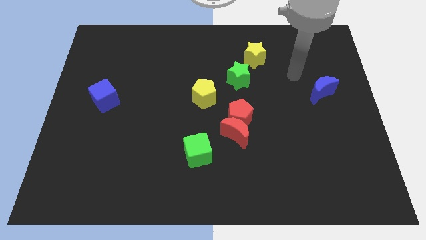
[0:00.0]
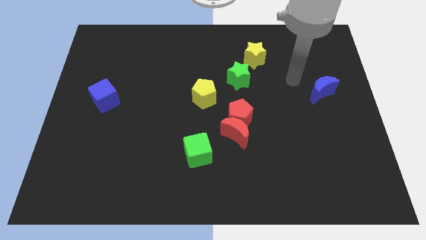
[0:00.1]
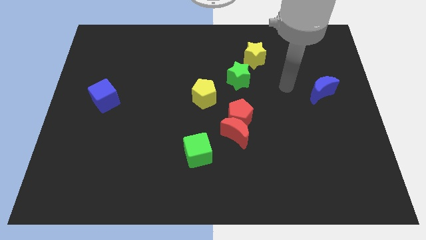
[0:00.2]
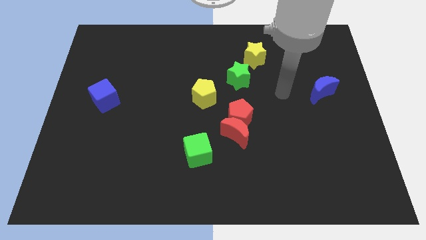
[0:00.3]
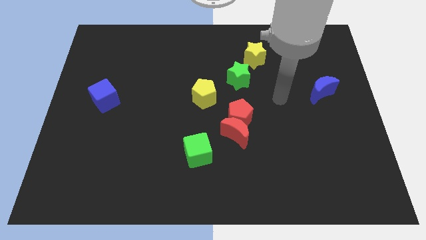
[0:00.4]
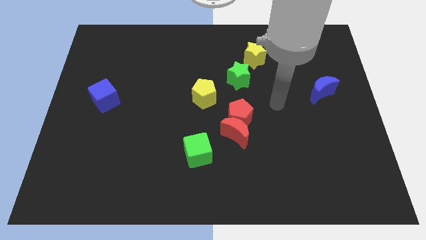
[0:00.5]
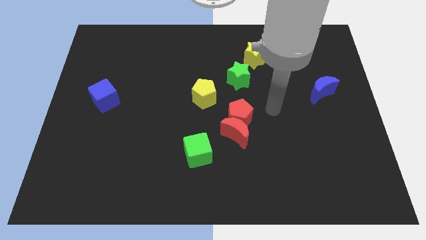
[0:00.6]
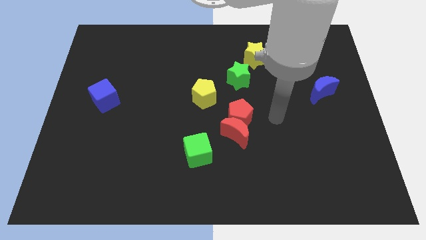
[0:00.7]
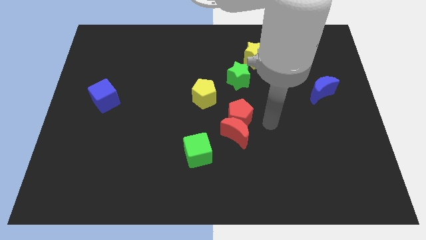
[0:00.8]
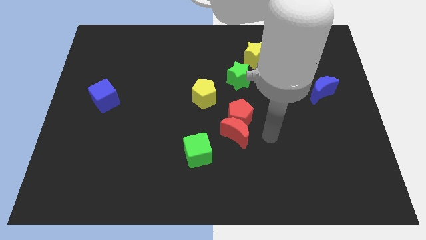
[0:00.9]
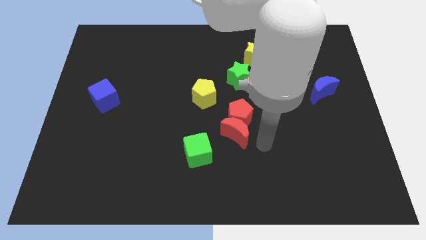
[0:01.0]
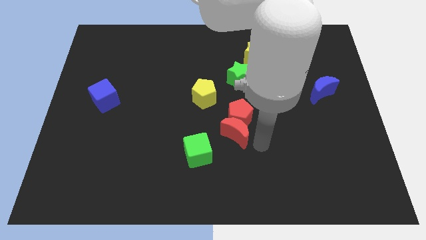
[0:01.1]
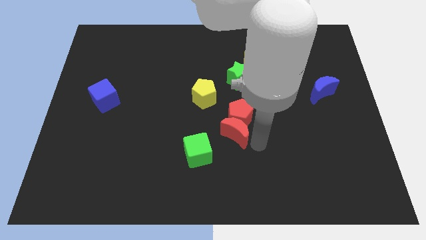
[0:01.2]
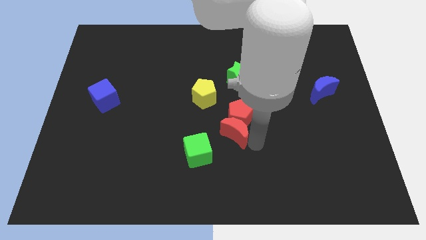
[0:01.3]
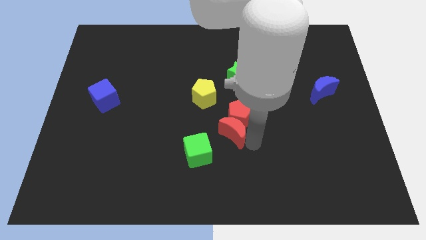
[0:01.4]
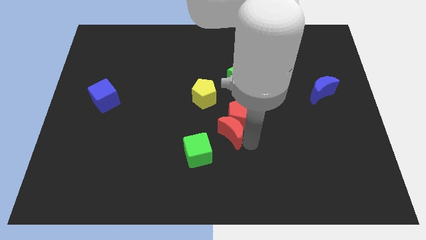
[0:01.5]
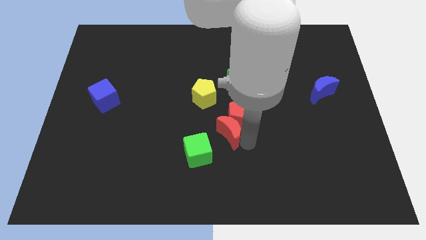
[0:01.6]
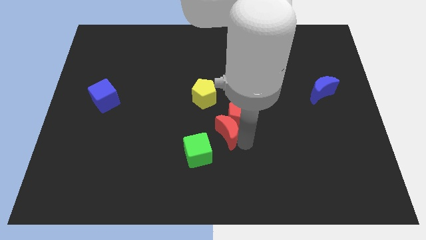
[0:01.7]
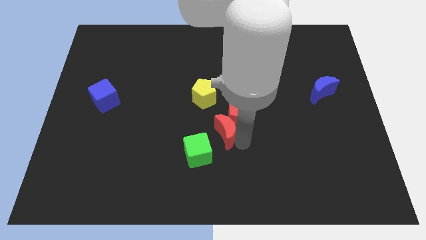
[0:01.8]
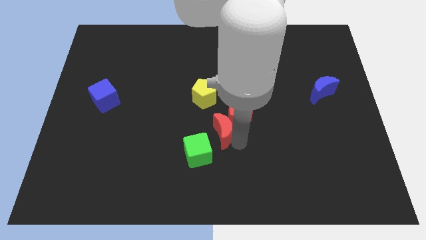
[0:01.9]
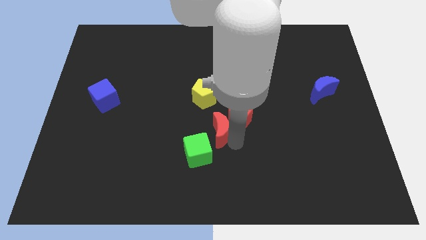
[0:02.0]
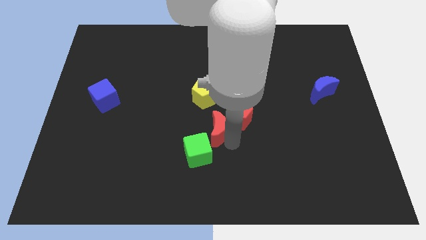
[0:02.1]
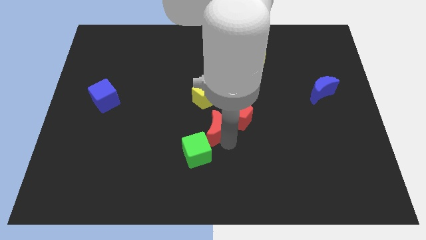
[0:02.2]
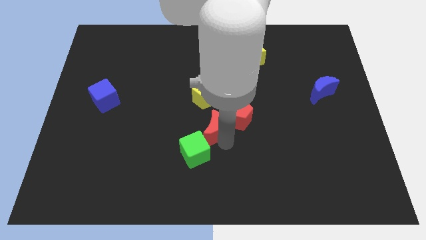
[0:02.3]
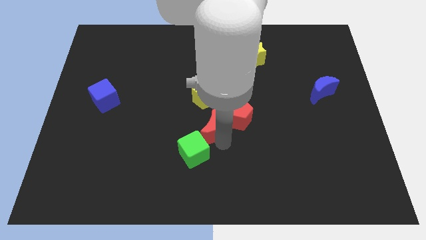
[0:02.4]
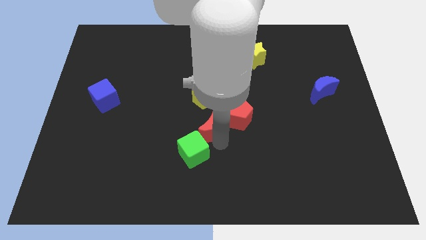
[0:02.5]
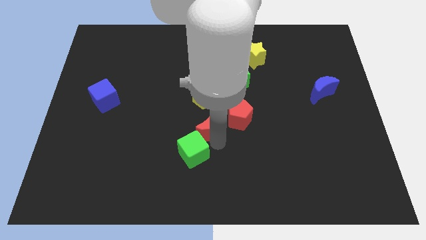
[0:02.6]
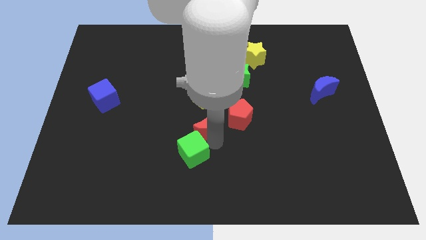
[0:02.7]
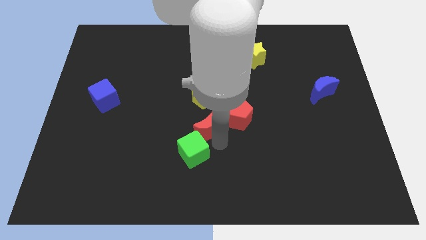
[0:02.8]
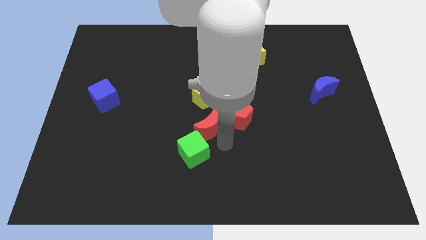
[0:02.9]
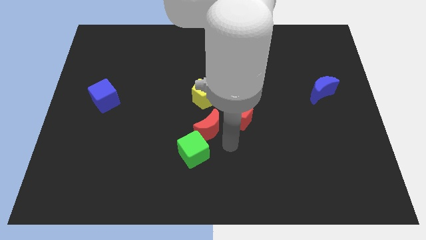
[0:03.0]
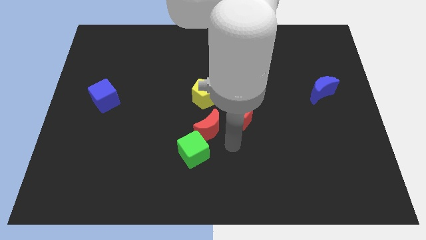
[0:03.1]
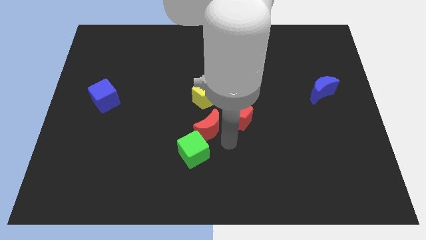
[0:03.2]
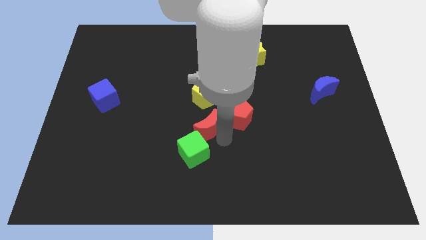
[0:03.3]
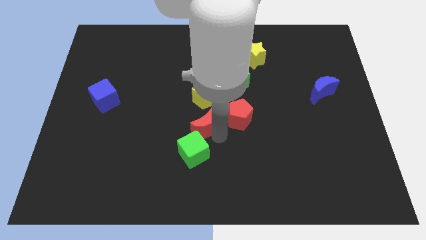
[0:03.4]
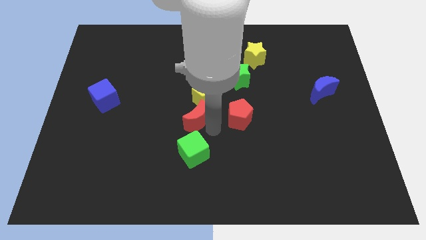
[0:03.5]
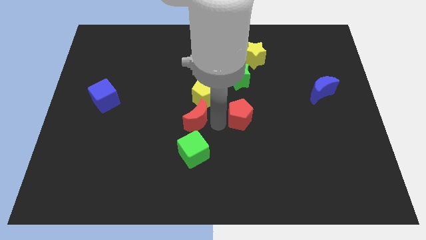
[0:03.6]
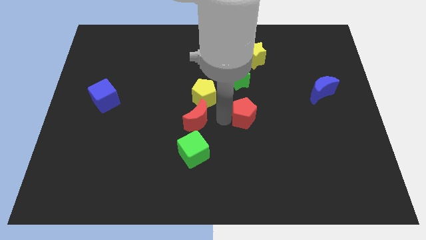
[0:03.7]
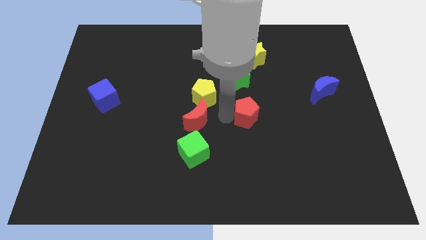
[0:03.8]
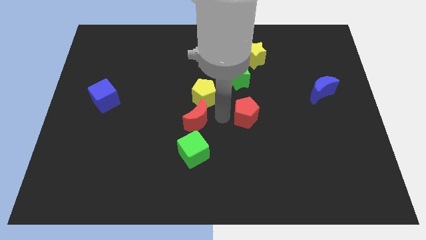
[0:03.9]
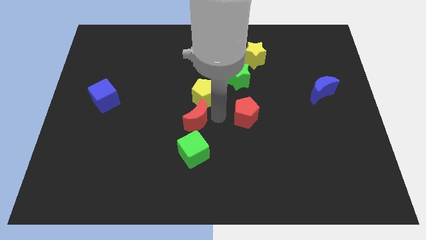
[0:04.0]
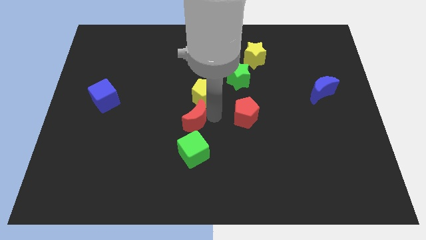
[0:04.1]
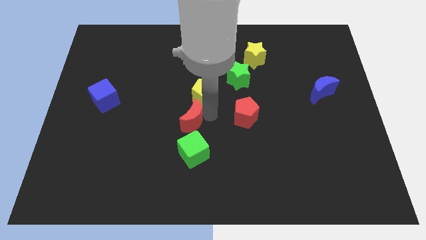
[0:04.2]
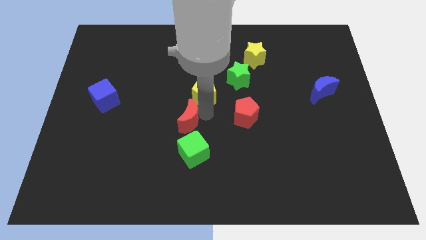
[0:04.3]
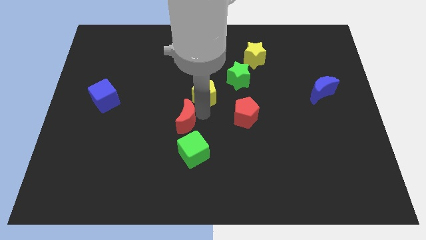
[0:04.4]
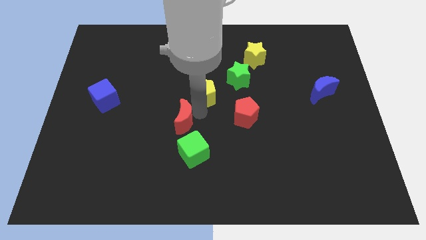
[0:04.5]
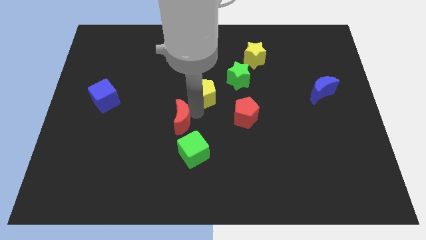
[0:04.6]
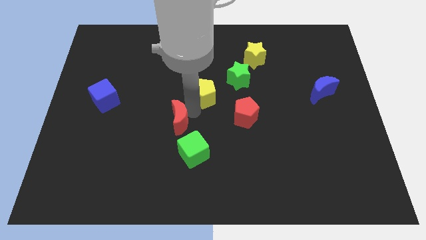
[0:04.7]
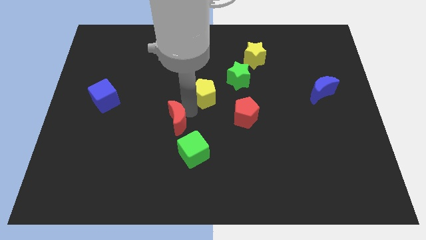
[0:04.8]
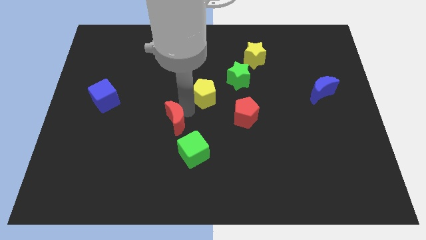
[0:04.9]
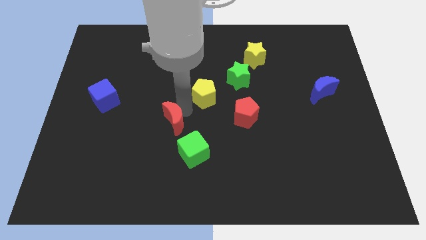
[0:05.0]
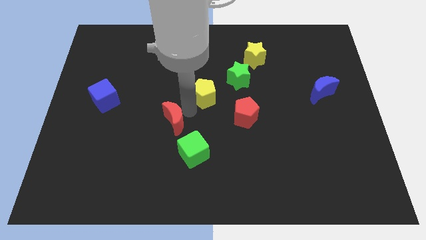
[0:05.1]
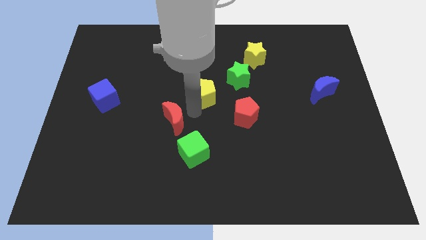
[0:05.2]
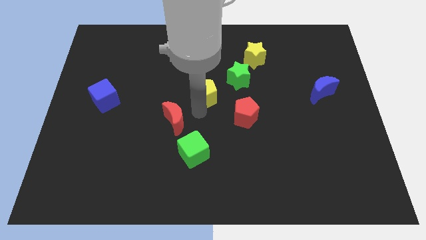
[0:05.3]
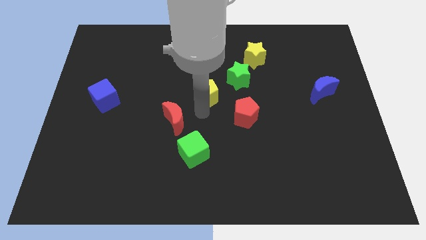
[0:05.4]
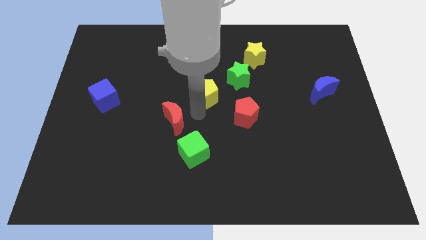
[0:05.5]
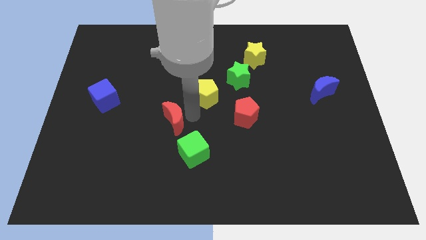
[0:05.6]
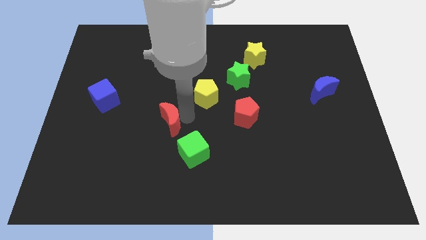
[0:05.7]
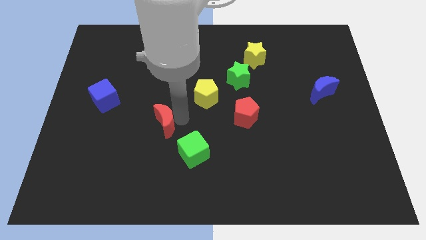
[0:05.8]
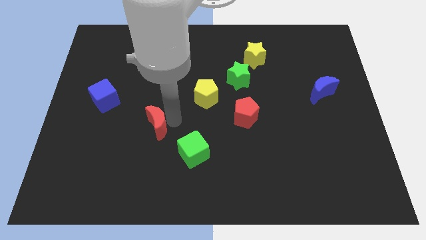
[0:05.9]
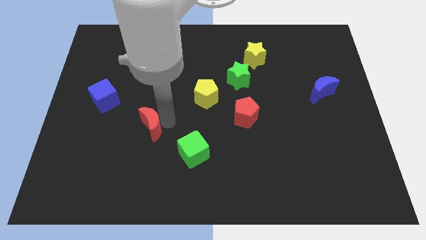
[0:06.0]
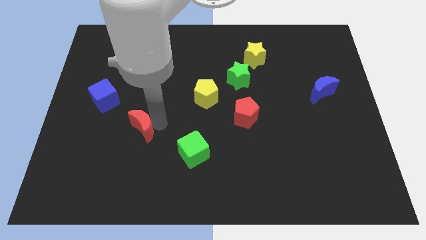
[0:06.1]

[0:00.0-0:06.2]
push the red moon to the left

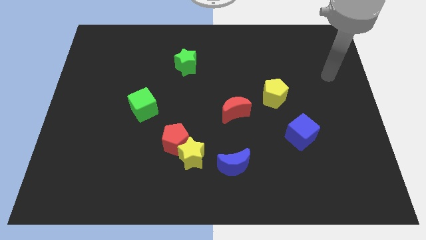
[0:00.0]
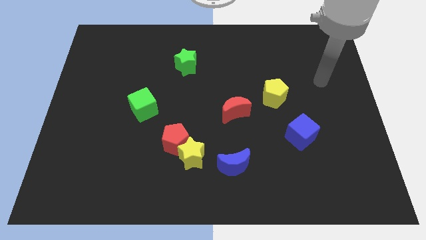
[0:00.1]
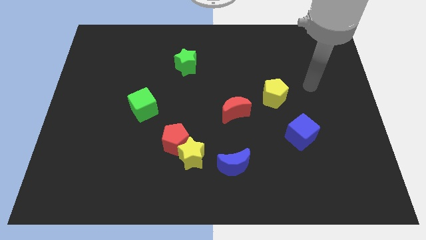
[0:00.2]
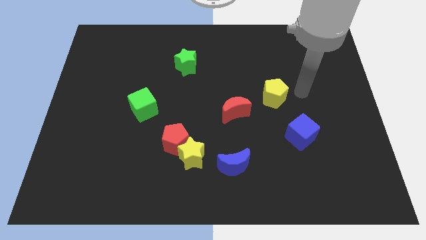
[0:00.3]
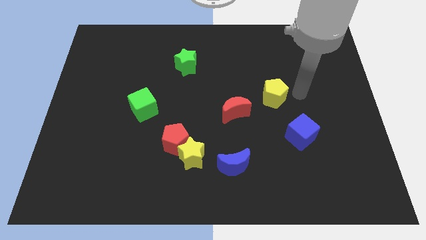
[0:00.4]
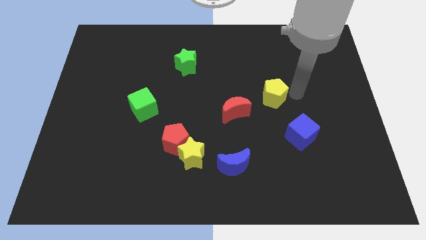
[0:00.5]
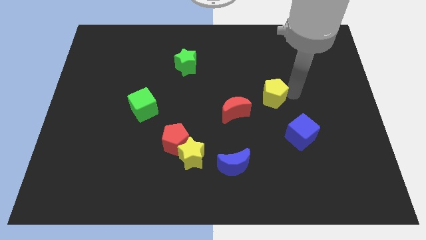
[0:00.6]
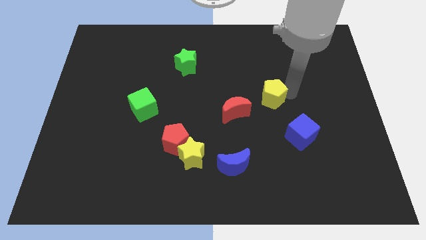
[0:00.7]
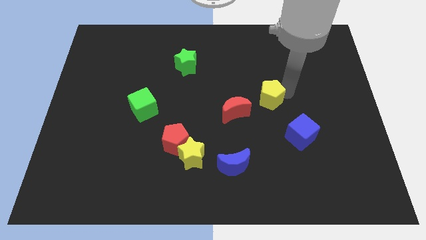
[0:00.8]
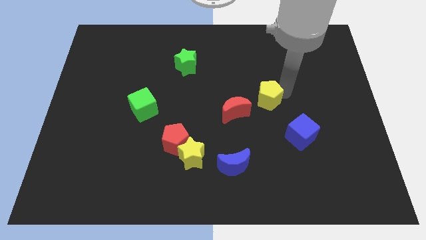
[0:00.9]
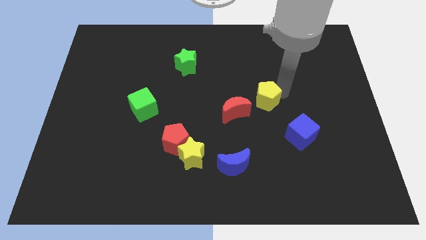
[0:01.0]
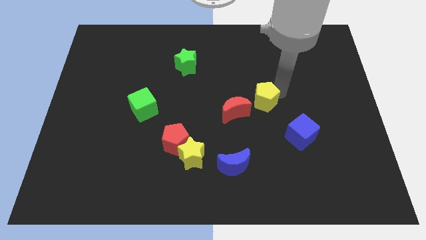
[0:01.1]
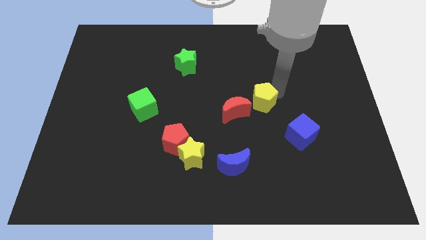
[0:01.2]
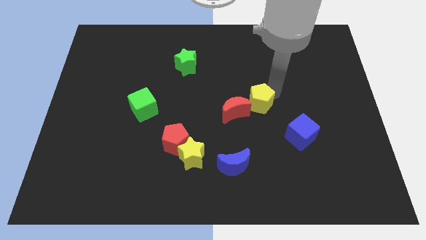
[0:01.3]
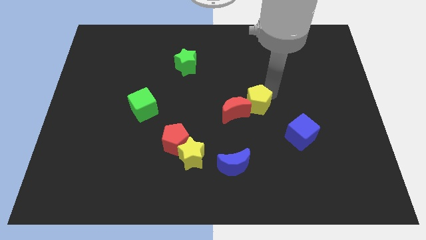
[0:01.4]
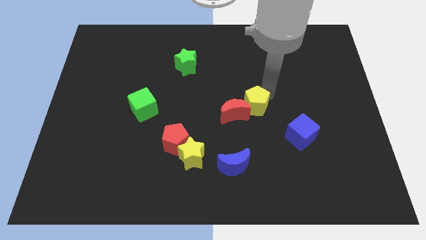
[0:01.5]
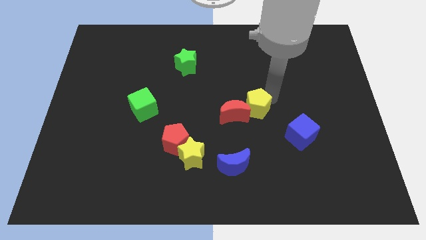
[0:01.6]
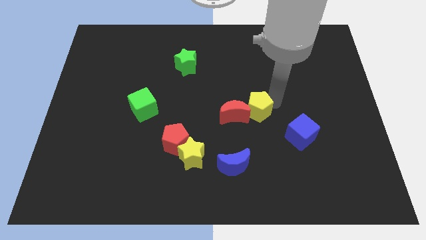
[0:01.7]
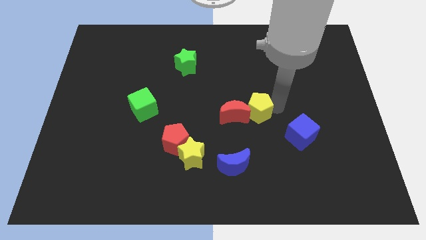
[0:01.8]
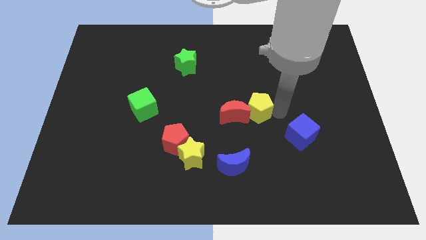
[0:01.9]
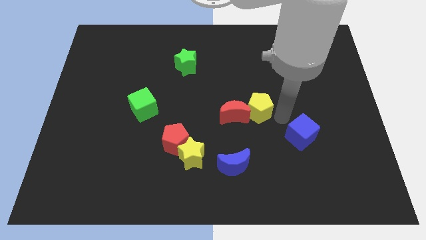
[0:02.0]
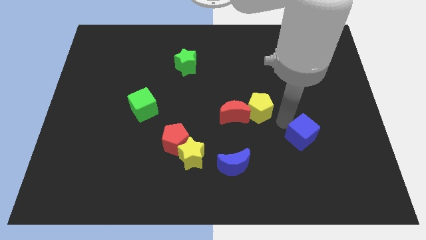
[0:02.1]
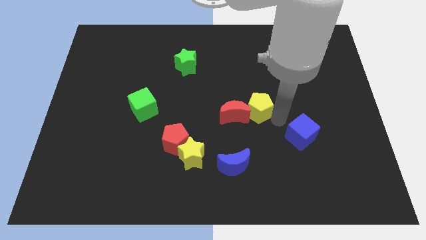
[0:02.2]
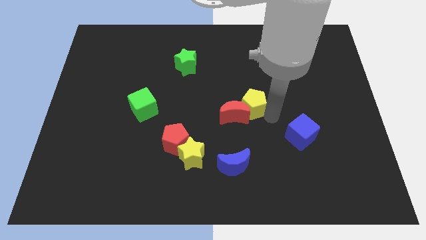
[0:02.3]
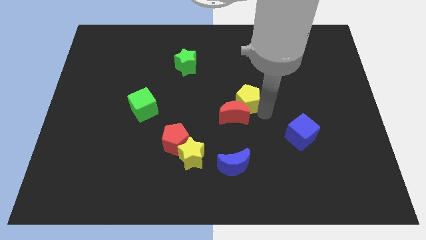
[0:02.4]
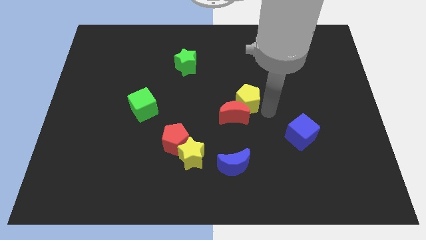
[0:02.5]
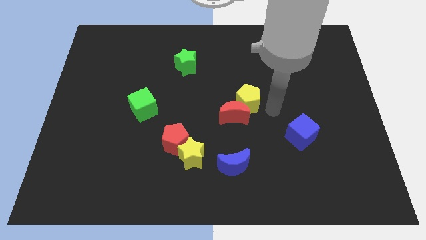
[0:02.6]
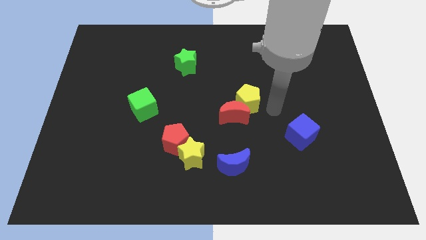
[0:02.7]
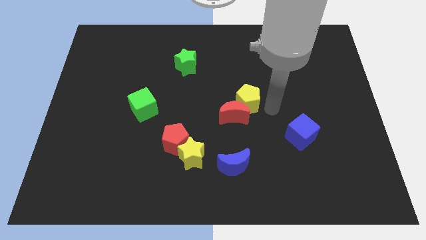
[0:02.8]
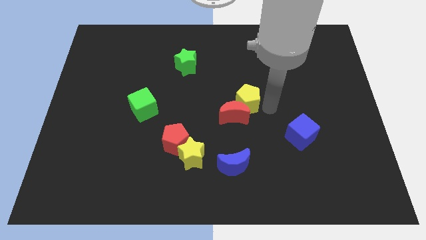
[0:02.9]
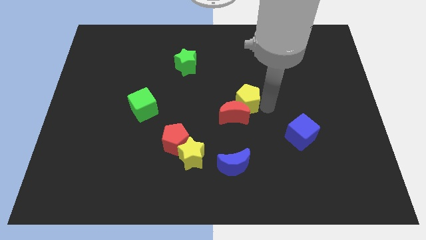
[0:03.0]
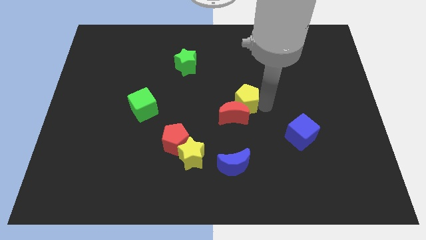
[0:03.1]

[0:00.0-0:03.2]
push the yellow pentagon left slightly
